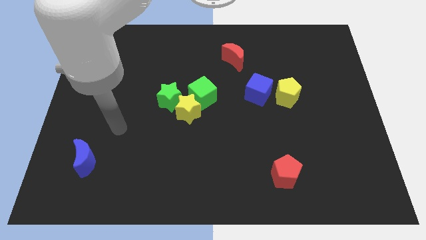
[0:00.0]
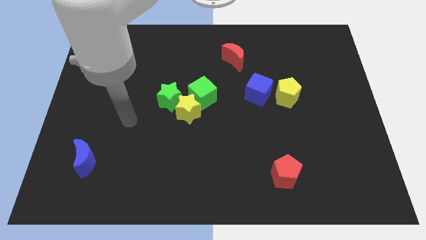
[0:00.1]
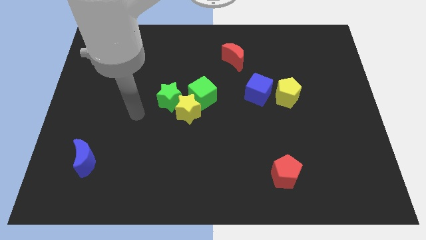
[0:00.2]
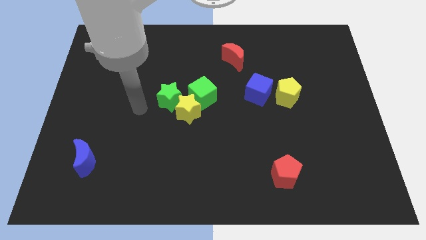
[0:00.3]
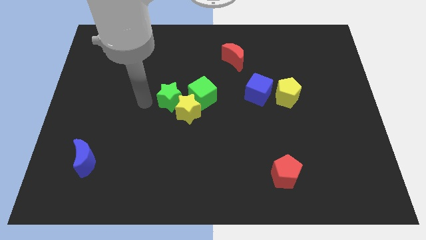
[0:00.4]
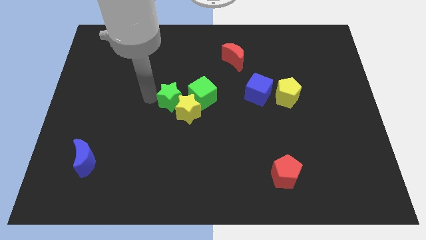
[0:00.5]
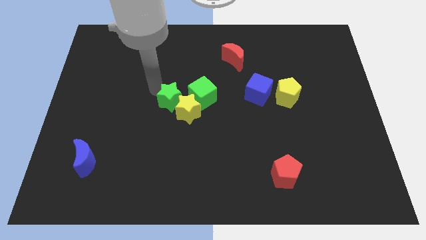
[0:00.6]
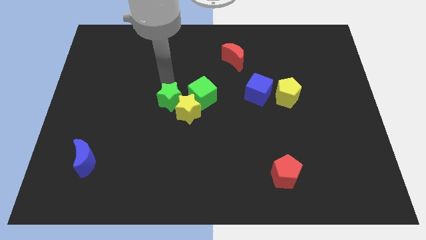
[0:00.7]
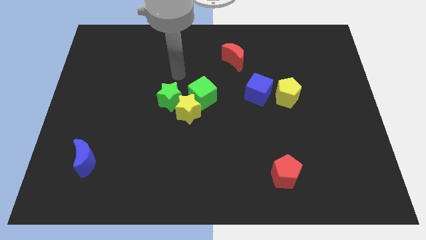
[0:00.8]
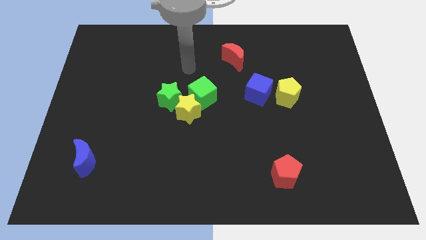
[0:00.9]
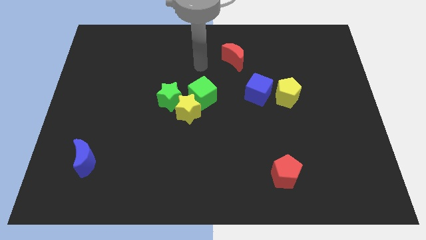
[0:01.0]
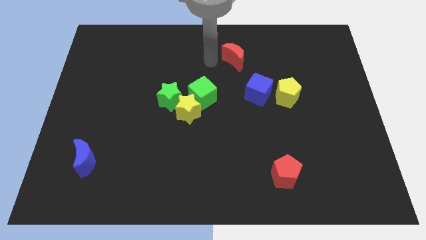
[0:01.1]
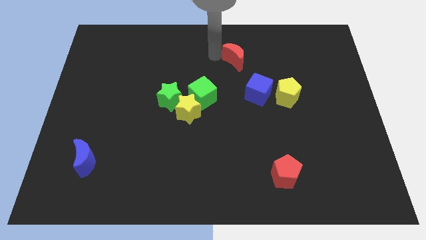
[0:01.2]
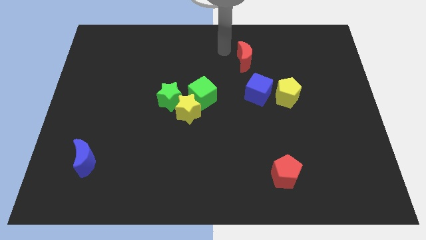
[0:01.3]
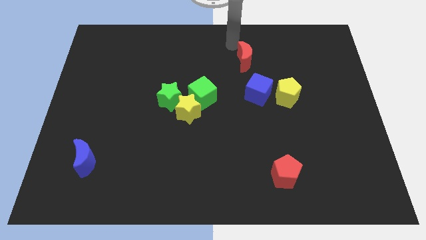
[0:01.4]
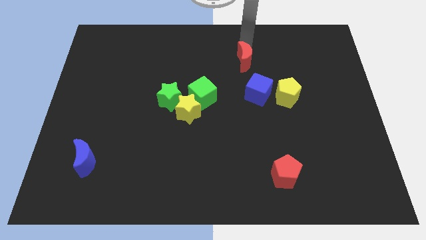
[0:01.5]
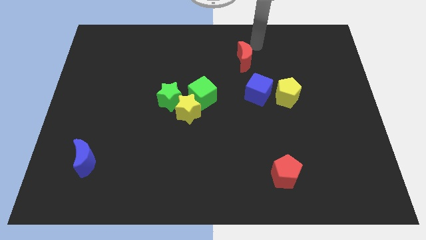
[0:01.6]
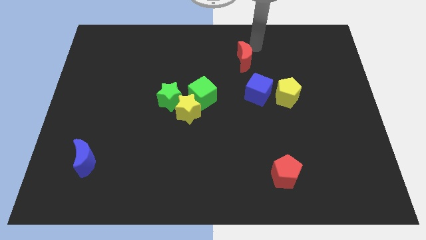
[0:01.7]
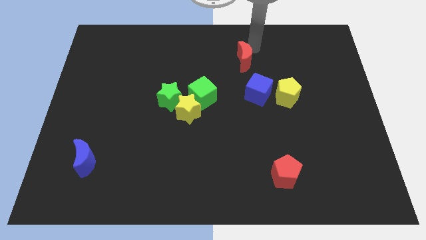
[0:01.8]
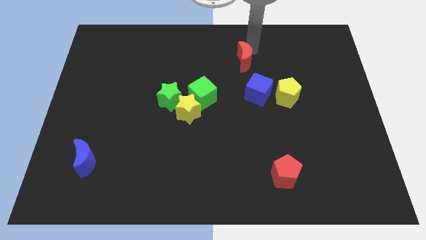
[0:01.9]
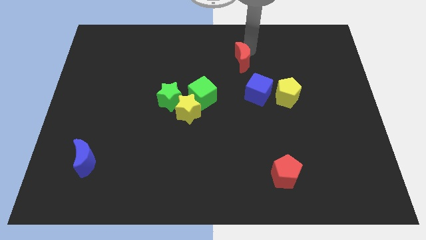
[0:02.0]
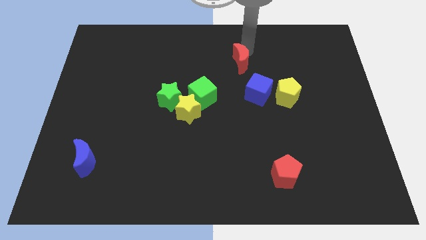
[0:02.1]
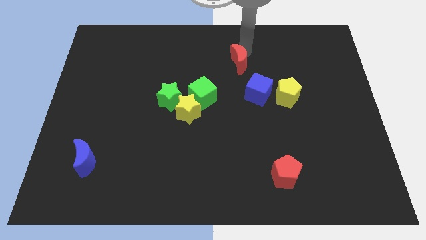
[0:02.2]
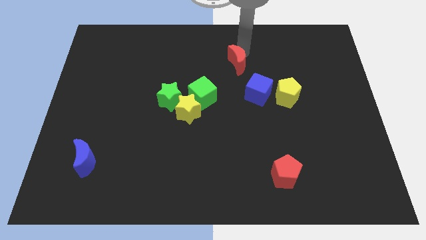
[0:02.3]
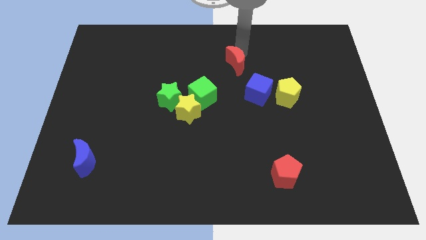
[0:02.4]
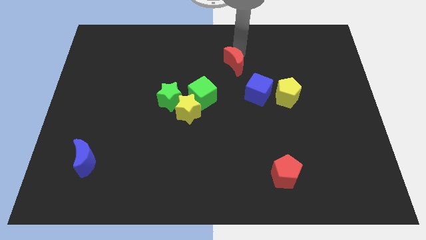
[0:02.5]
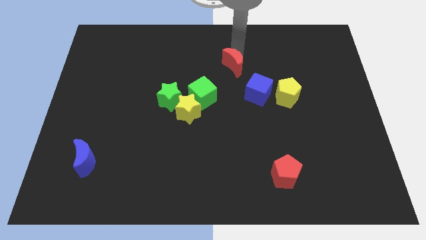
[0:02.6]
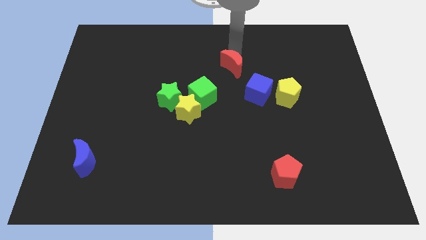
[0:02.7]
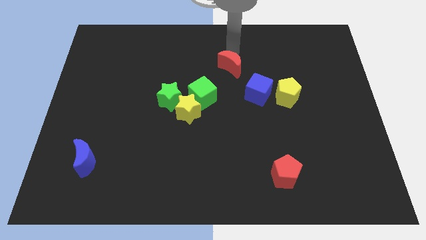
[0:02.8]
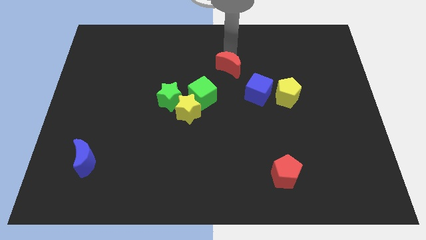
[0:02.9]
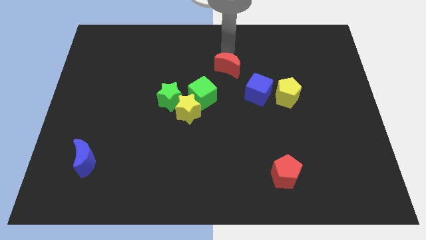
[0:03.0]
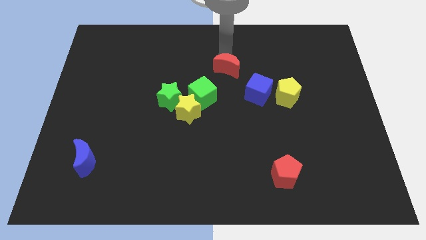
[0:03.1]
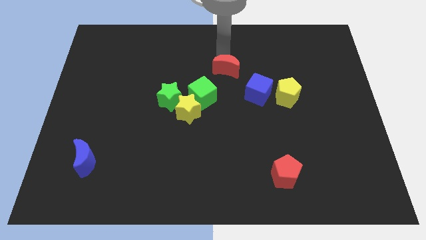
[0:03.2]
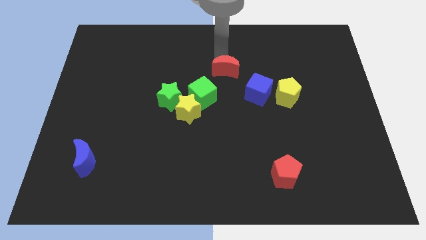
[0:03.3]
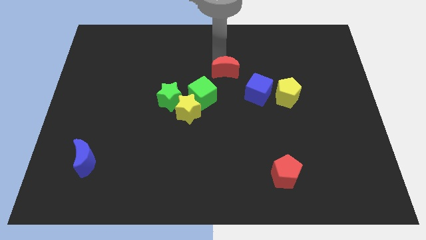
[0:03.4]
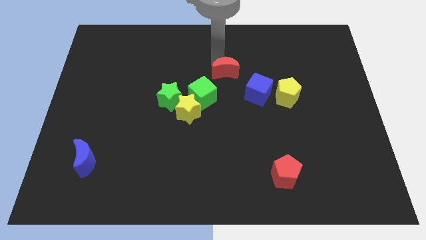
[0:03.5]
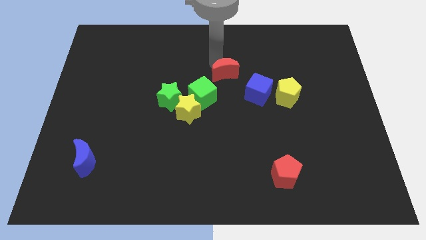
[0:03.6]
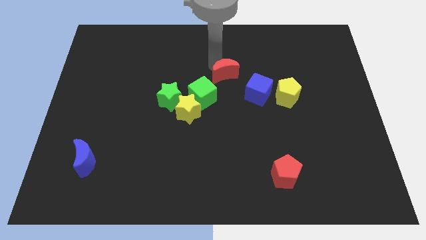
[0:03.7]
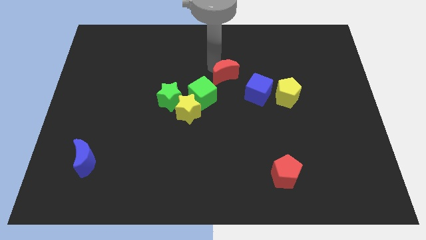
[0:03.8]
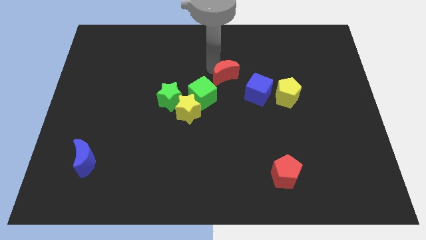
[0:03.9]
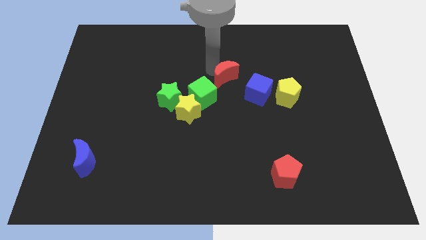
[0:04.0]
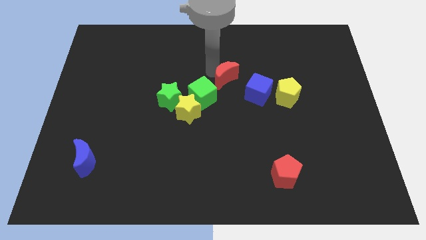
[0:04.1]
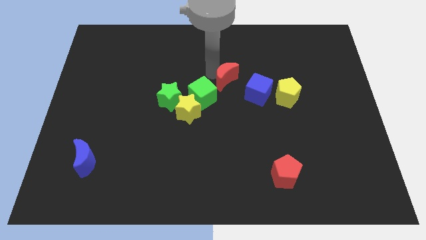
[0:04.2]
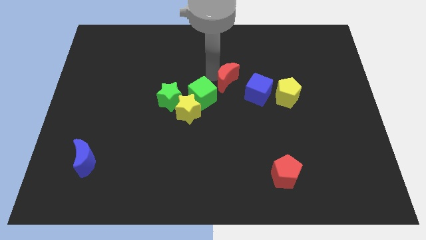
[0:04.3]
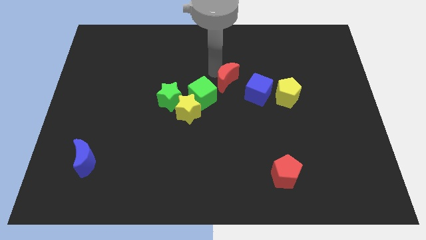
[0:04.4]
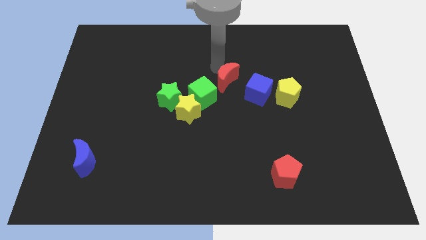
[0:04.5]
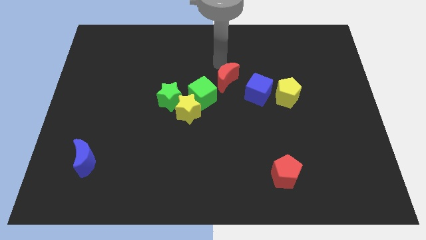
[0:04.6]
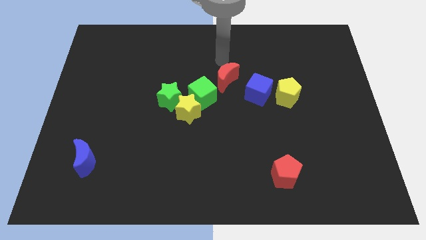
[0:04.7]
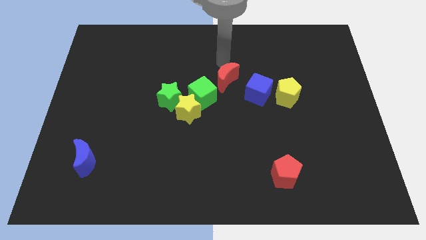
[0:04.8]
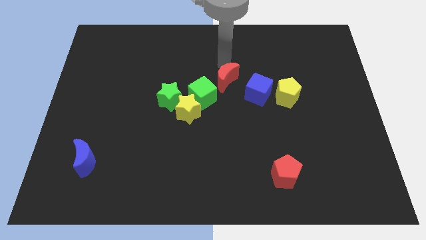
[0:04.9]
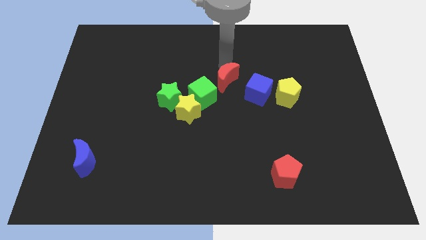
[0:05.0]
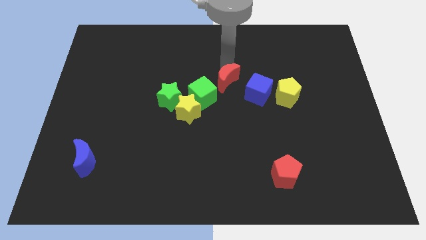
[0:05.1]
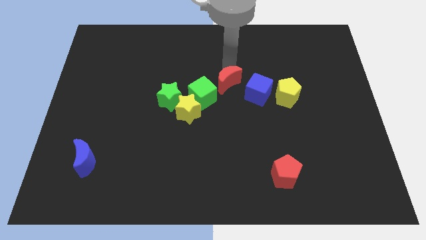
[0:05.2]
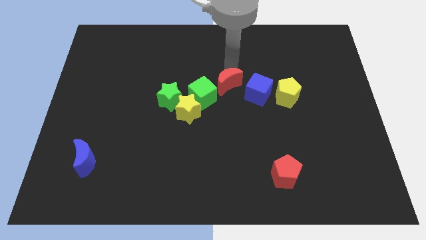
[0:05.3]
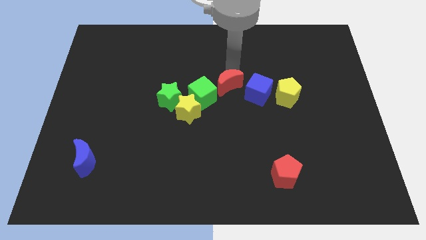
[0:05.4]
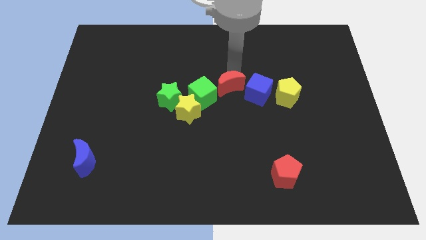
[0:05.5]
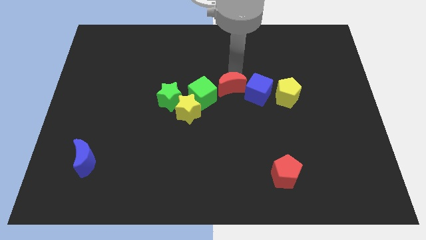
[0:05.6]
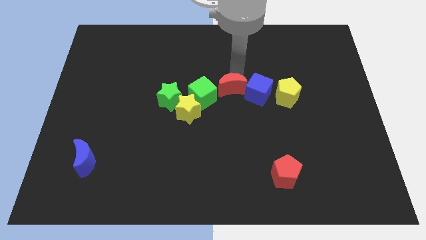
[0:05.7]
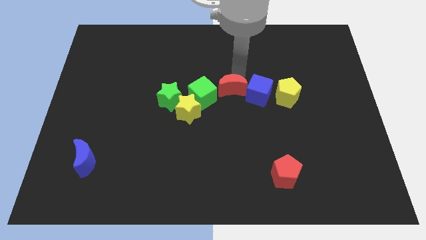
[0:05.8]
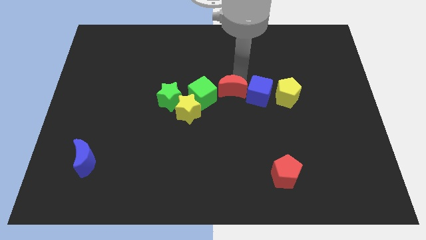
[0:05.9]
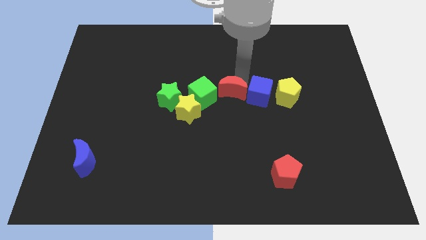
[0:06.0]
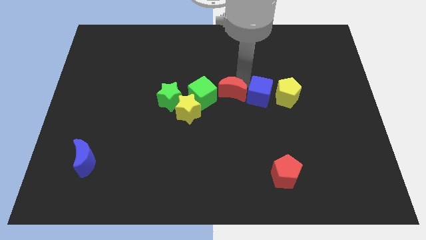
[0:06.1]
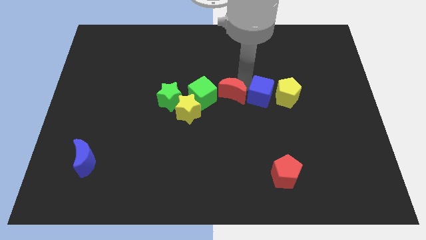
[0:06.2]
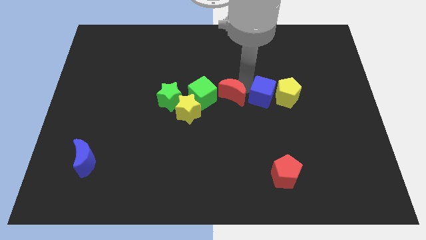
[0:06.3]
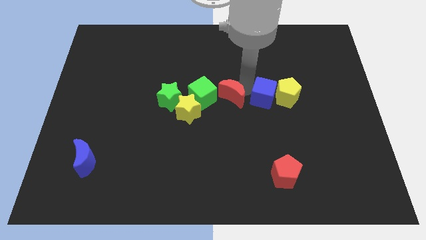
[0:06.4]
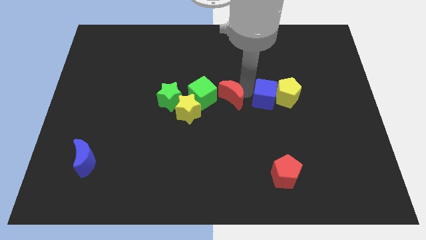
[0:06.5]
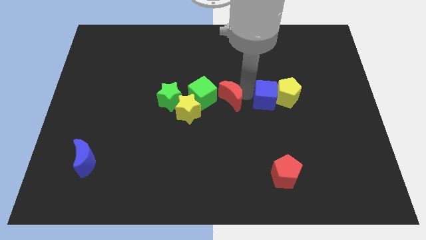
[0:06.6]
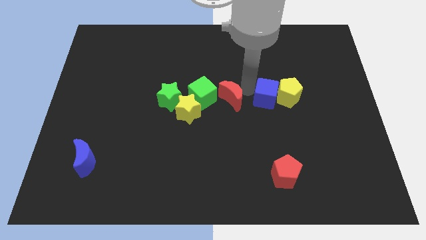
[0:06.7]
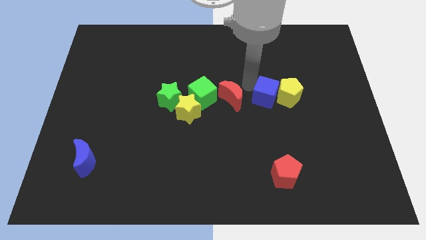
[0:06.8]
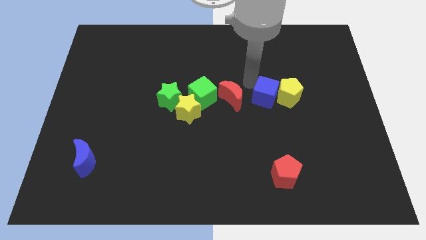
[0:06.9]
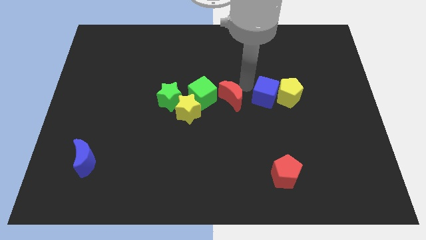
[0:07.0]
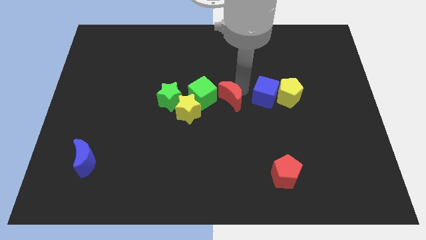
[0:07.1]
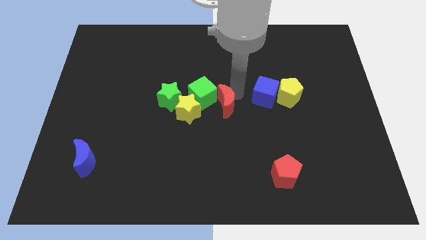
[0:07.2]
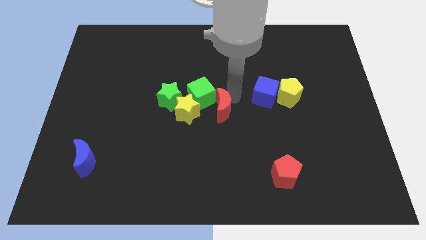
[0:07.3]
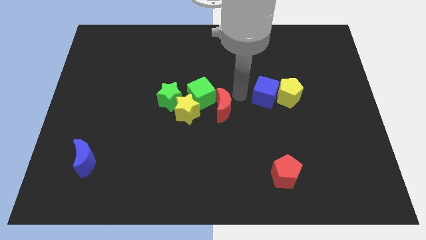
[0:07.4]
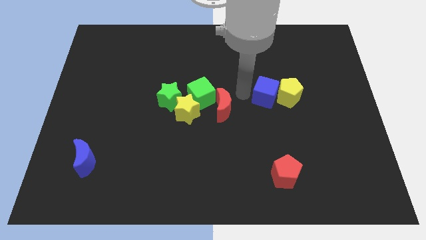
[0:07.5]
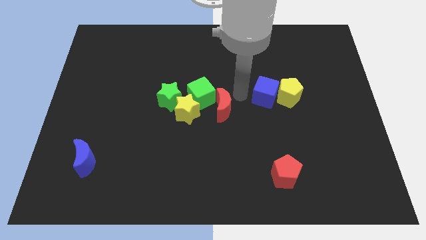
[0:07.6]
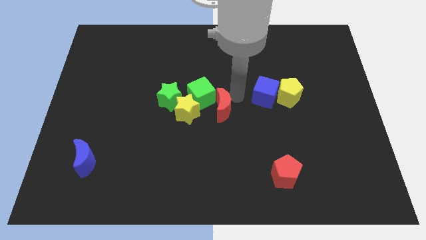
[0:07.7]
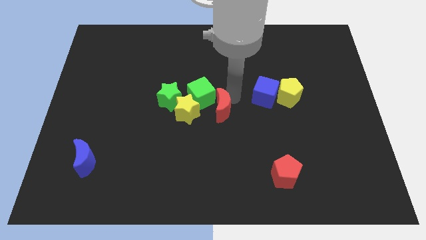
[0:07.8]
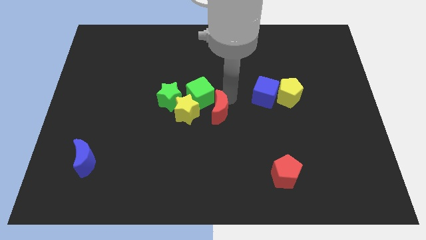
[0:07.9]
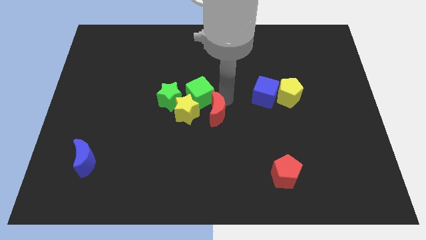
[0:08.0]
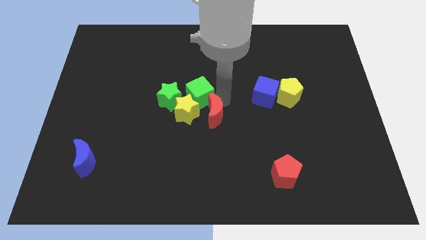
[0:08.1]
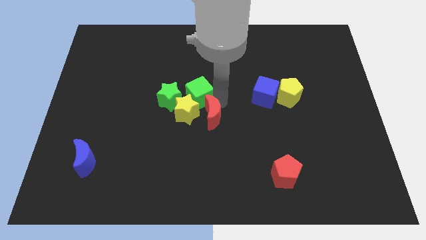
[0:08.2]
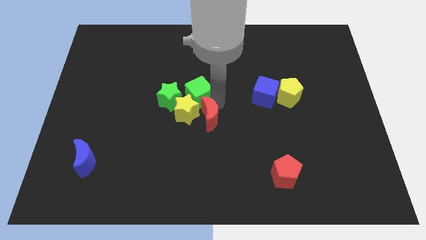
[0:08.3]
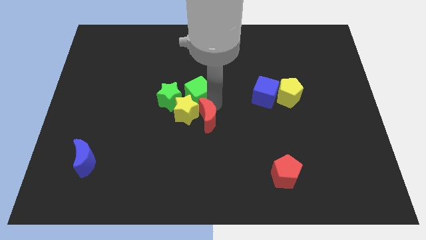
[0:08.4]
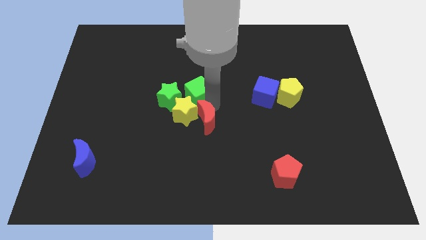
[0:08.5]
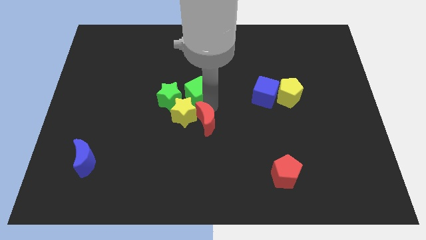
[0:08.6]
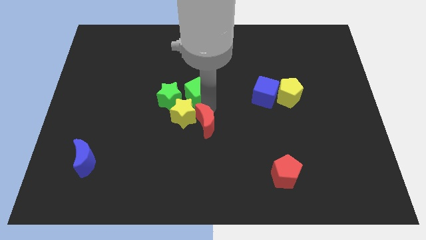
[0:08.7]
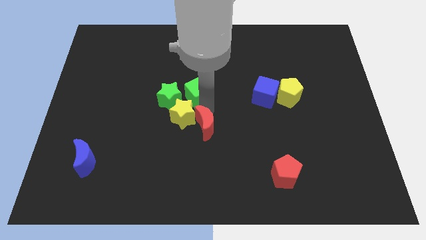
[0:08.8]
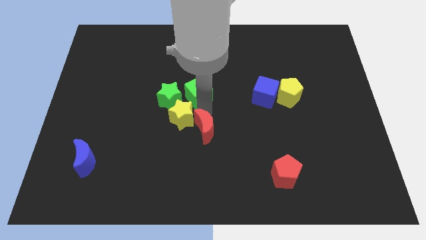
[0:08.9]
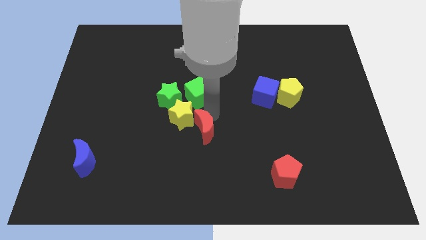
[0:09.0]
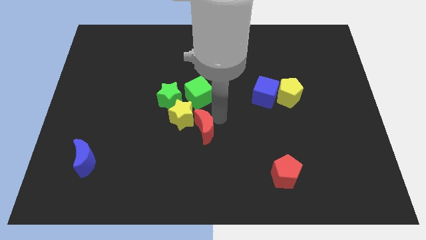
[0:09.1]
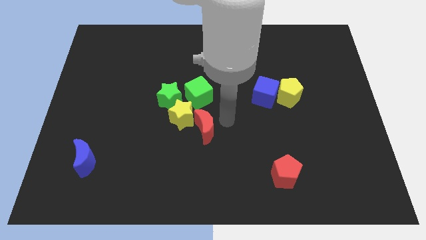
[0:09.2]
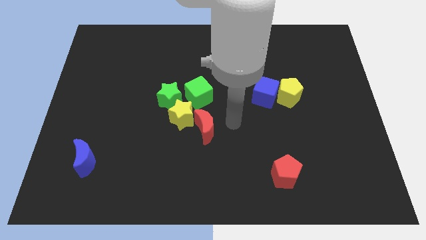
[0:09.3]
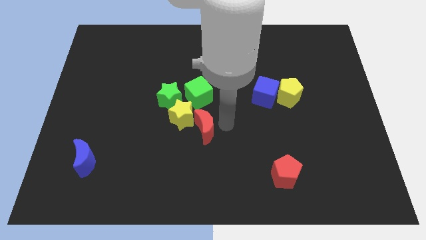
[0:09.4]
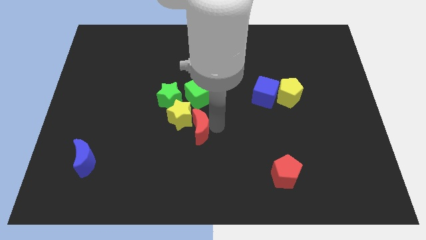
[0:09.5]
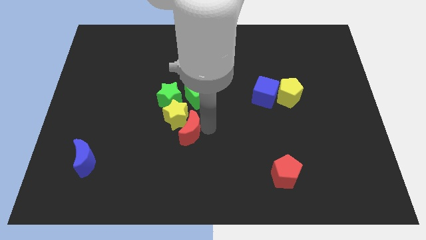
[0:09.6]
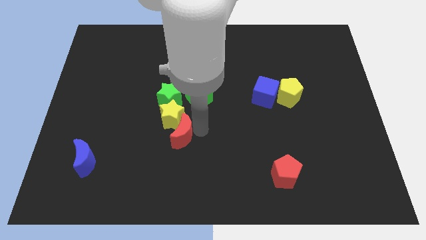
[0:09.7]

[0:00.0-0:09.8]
put the red moon below the green star
